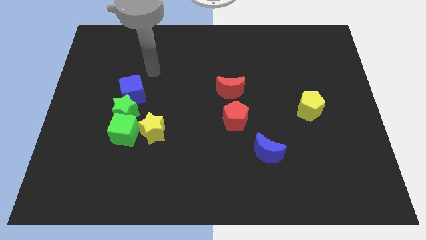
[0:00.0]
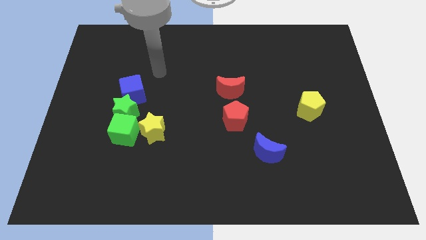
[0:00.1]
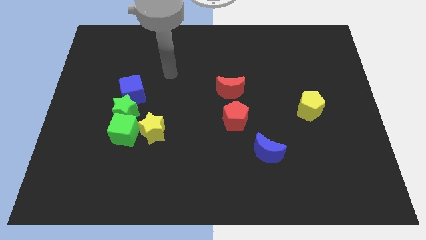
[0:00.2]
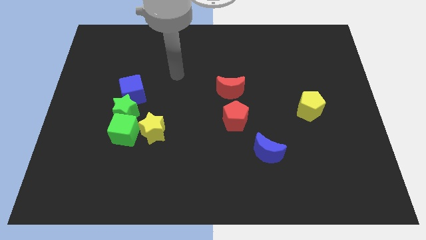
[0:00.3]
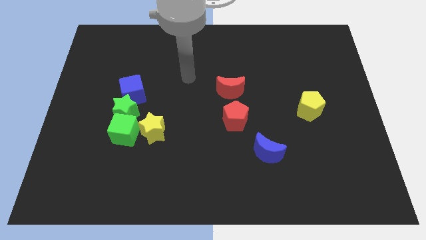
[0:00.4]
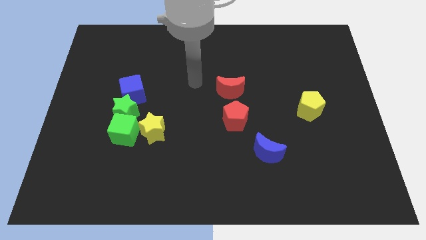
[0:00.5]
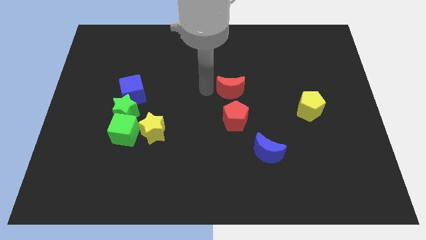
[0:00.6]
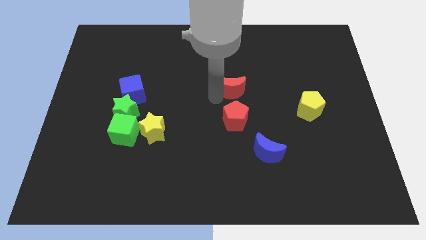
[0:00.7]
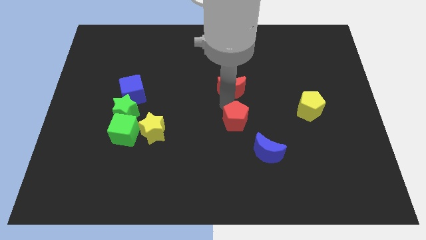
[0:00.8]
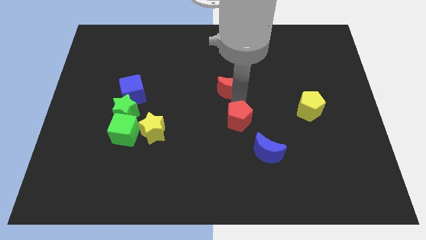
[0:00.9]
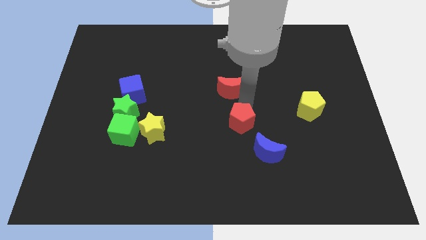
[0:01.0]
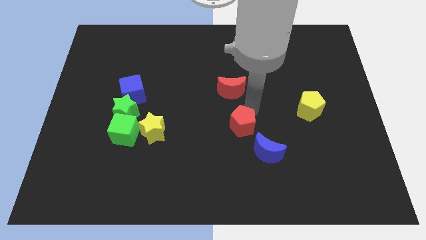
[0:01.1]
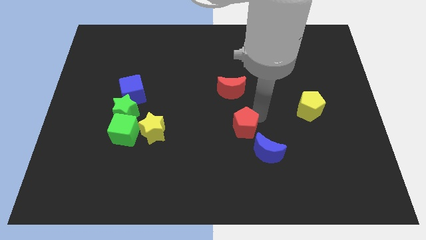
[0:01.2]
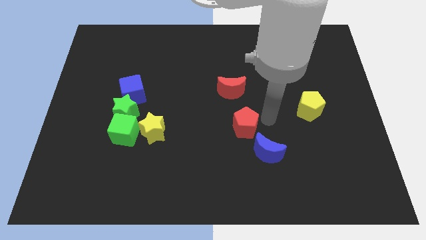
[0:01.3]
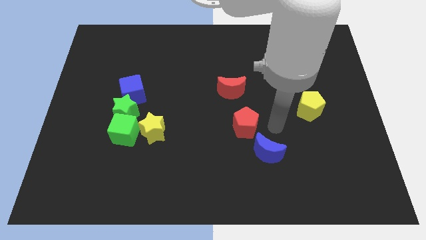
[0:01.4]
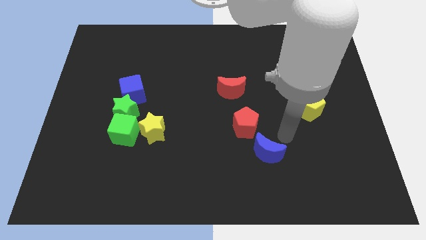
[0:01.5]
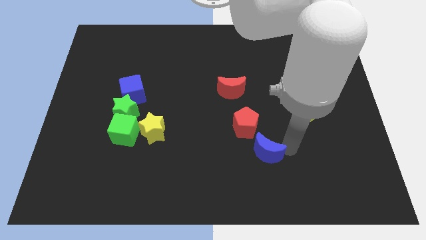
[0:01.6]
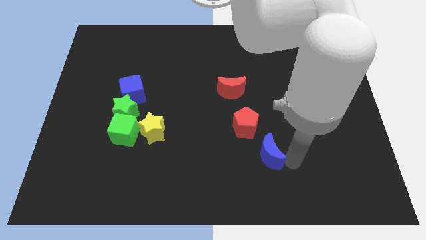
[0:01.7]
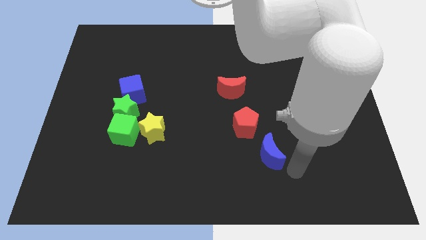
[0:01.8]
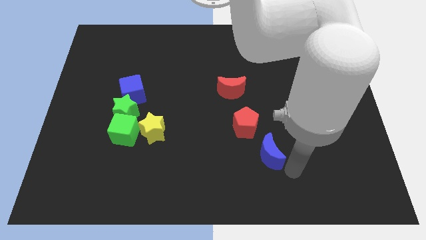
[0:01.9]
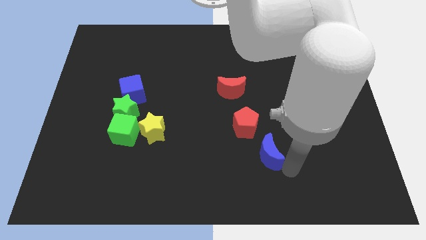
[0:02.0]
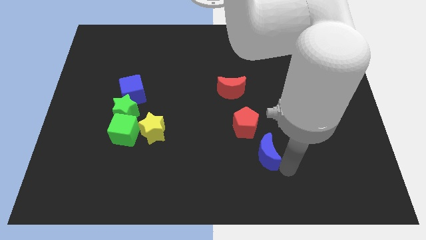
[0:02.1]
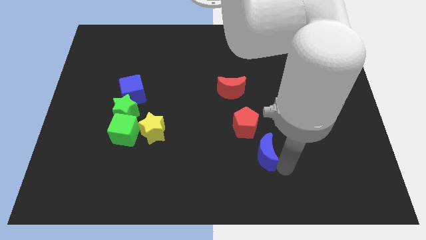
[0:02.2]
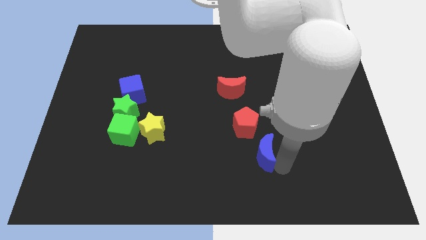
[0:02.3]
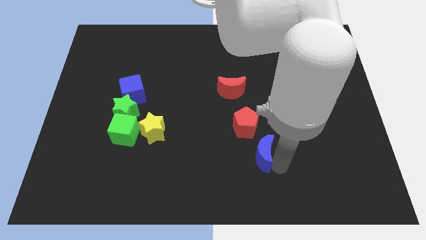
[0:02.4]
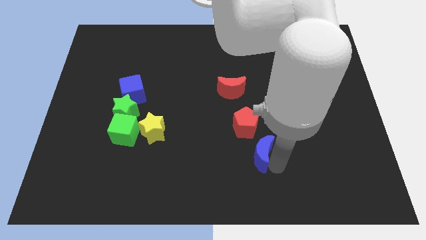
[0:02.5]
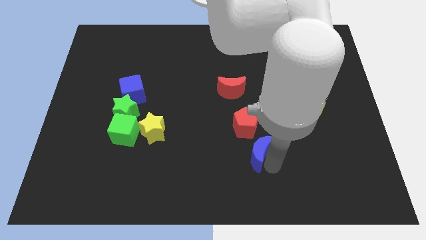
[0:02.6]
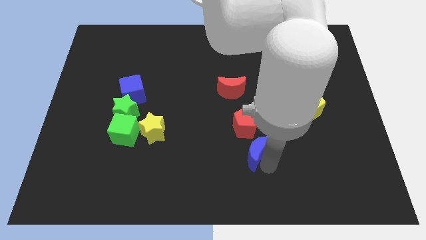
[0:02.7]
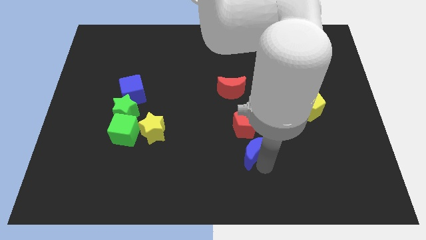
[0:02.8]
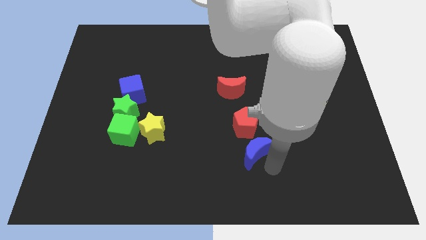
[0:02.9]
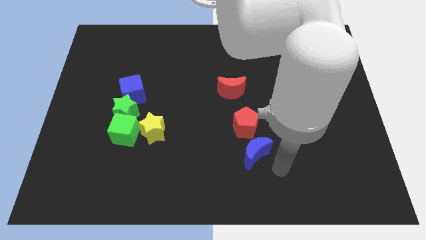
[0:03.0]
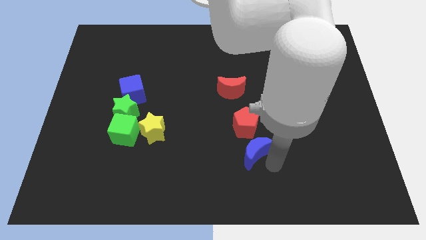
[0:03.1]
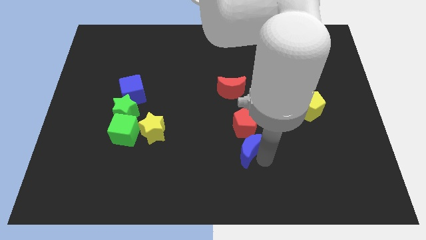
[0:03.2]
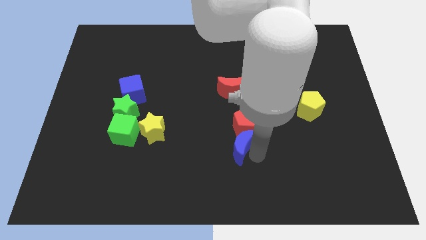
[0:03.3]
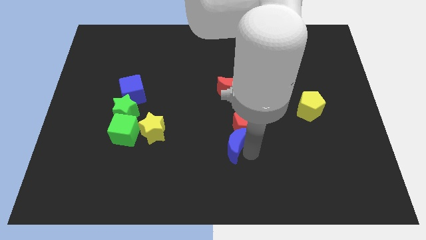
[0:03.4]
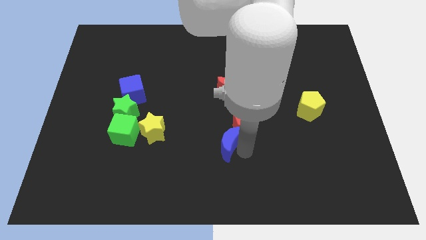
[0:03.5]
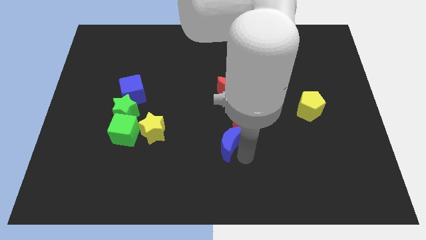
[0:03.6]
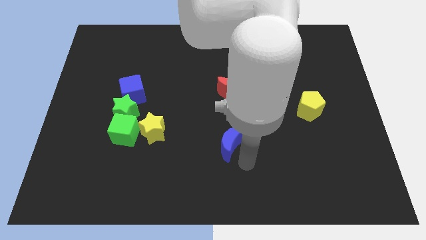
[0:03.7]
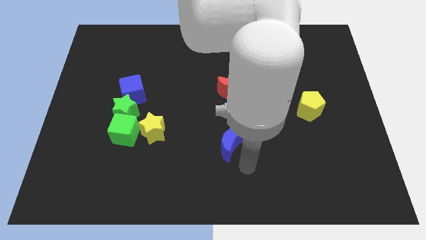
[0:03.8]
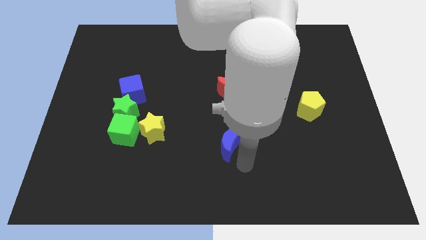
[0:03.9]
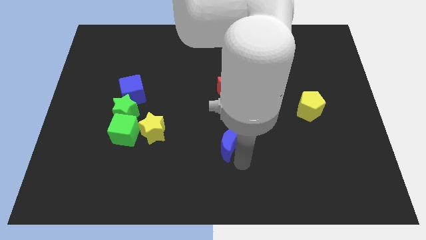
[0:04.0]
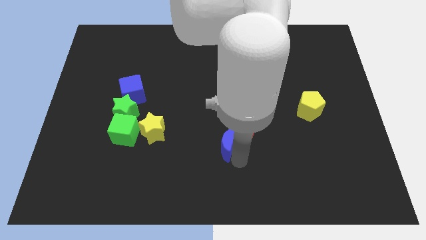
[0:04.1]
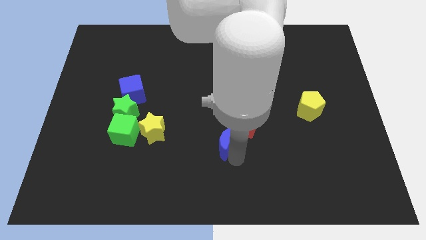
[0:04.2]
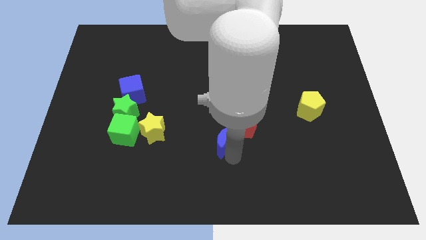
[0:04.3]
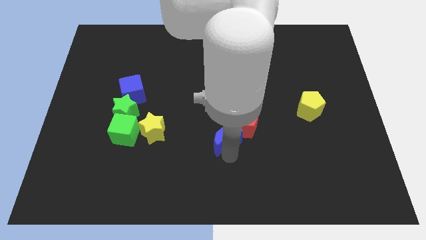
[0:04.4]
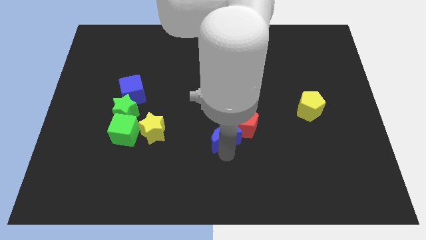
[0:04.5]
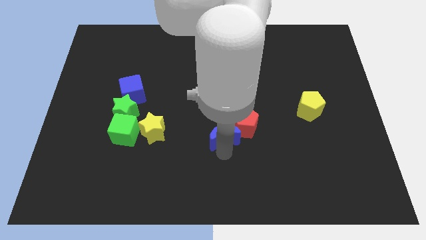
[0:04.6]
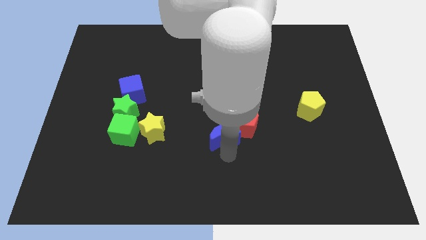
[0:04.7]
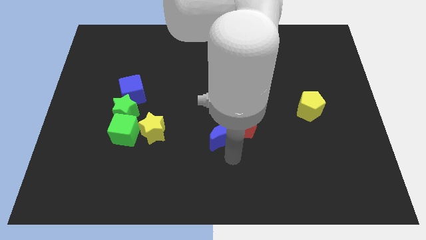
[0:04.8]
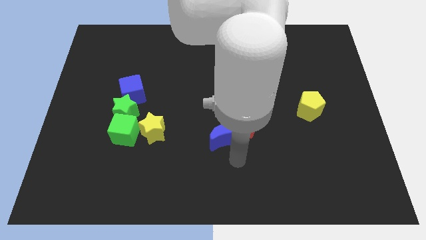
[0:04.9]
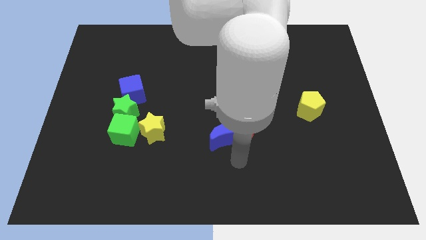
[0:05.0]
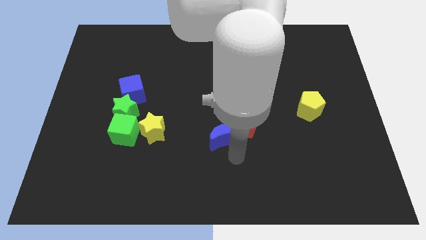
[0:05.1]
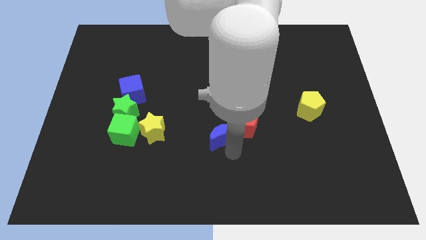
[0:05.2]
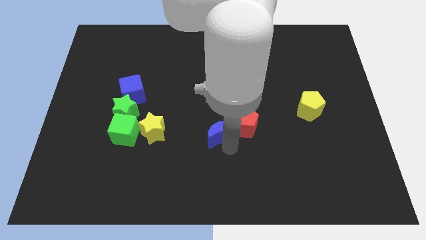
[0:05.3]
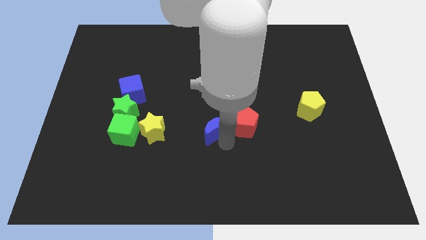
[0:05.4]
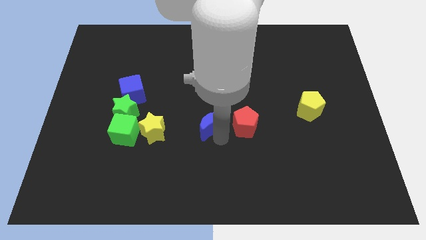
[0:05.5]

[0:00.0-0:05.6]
put the blue moon diagonally down and to the left of the red moon

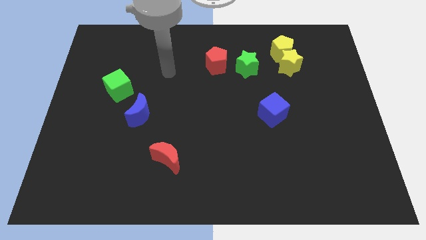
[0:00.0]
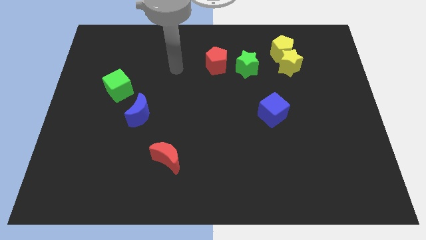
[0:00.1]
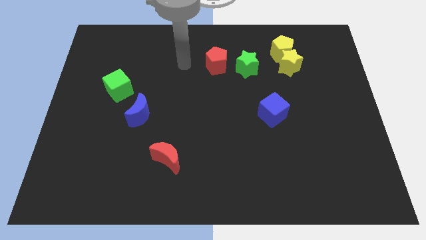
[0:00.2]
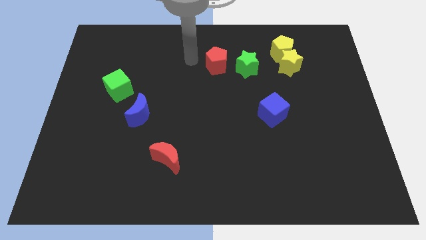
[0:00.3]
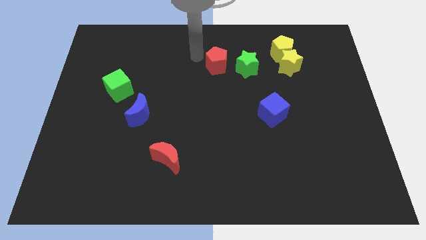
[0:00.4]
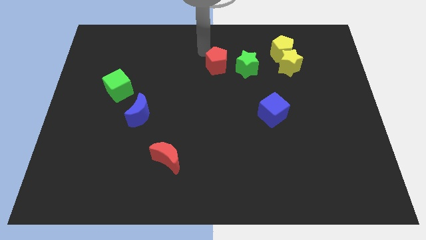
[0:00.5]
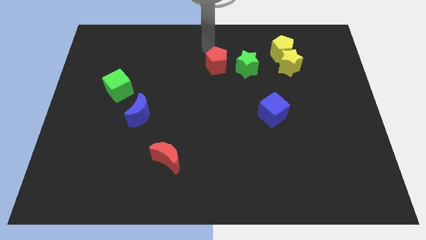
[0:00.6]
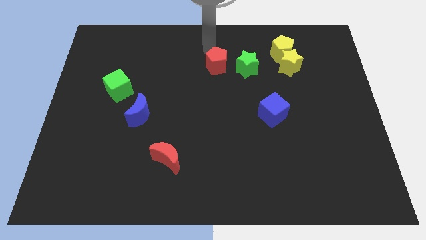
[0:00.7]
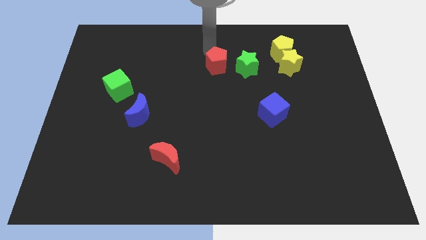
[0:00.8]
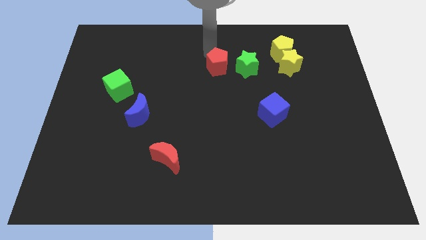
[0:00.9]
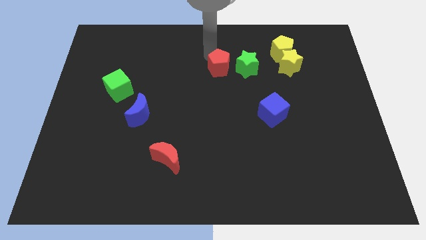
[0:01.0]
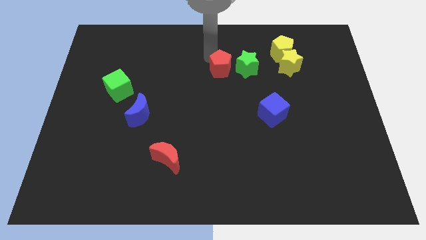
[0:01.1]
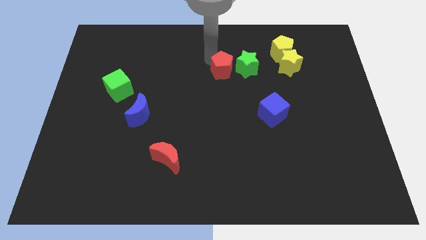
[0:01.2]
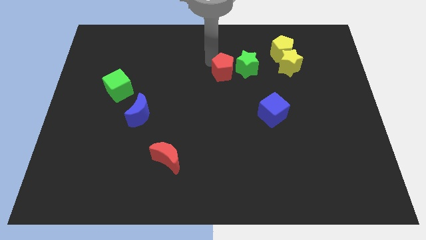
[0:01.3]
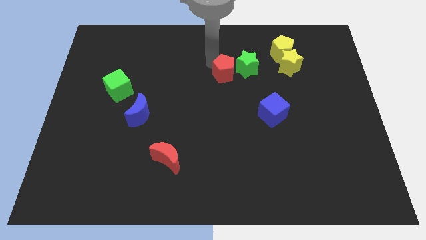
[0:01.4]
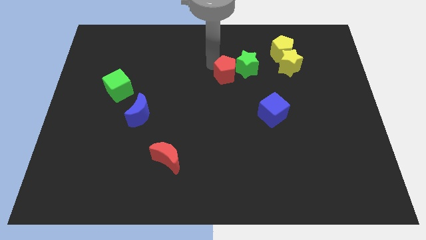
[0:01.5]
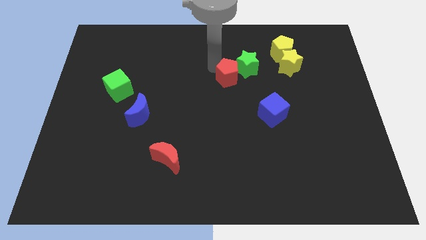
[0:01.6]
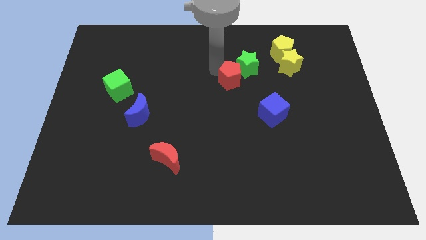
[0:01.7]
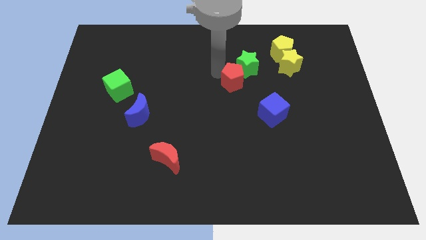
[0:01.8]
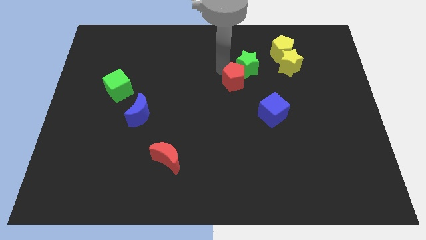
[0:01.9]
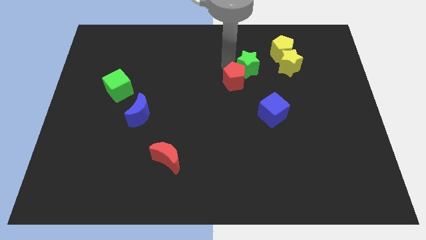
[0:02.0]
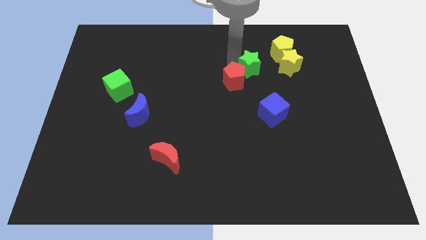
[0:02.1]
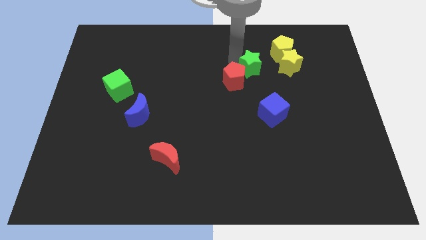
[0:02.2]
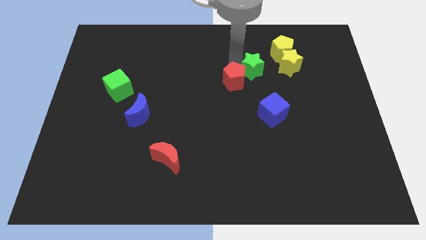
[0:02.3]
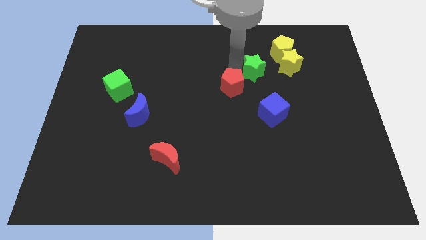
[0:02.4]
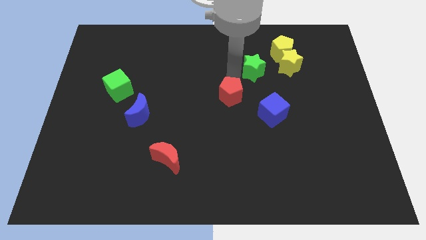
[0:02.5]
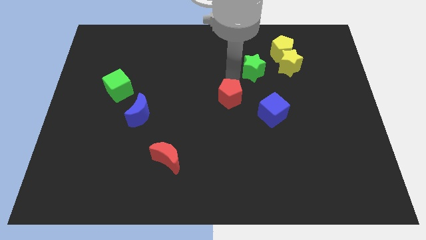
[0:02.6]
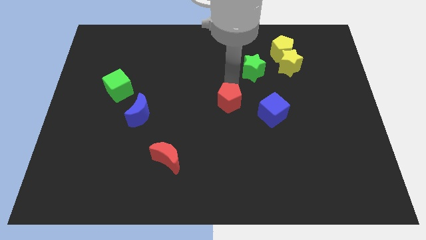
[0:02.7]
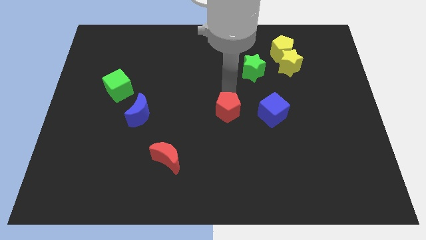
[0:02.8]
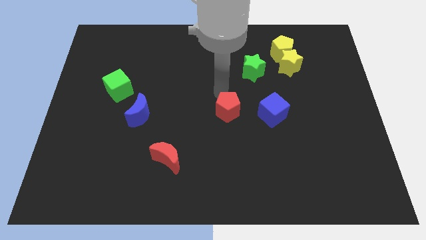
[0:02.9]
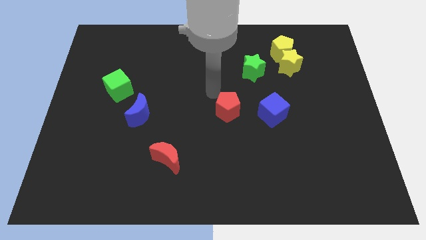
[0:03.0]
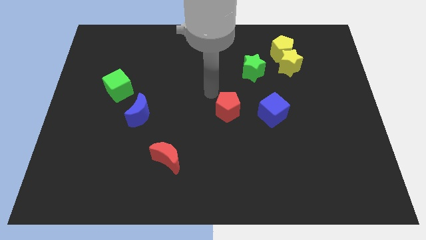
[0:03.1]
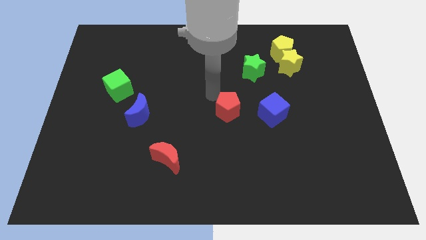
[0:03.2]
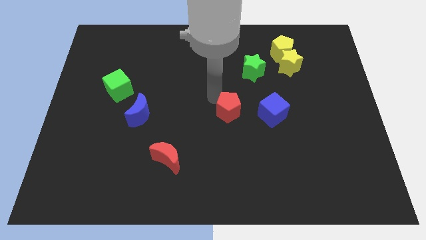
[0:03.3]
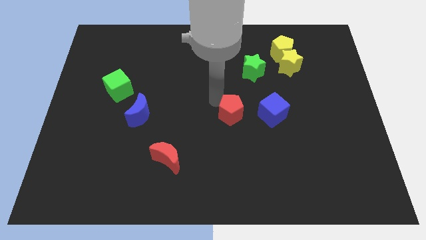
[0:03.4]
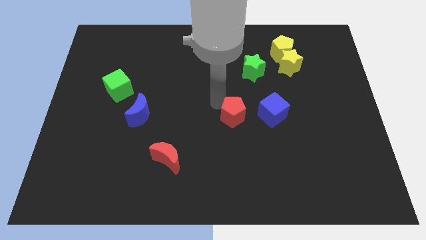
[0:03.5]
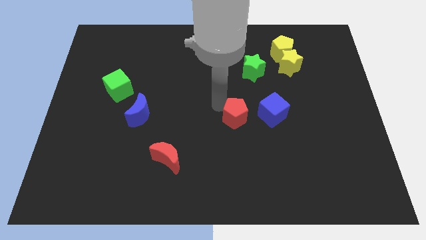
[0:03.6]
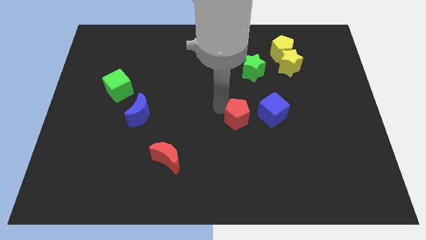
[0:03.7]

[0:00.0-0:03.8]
push the red pentagon diagonally down and to the left of the blue cube
